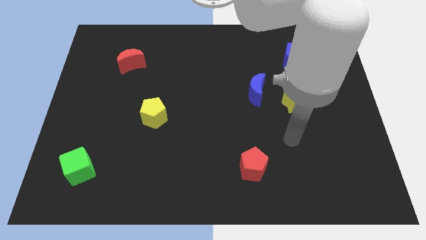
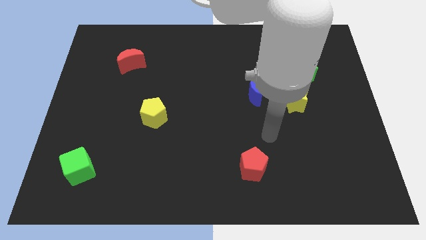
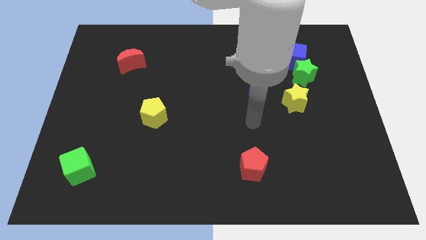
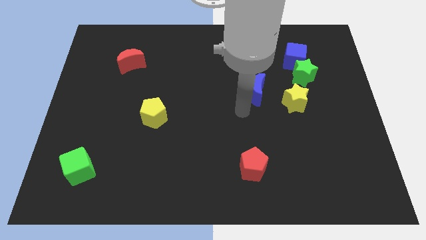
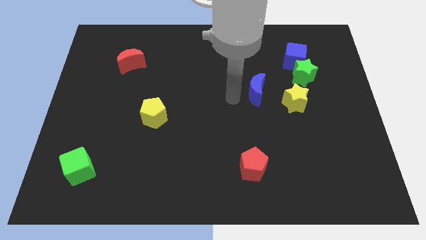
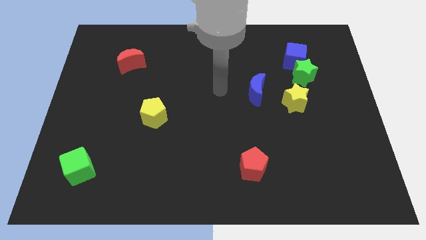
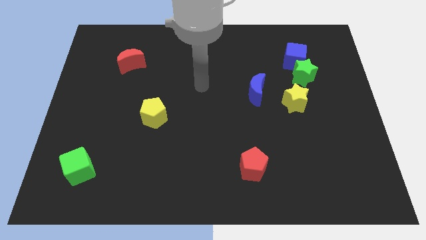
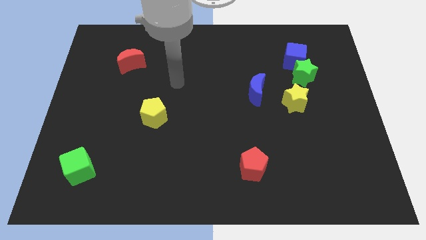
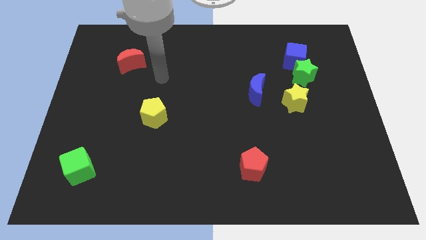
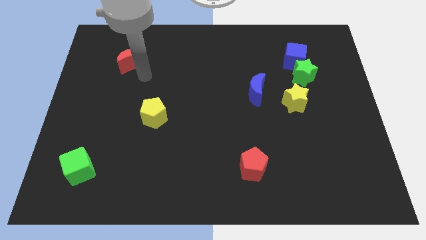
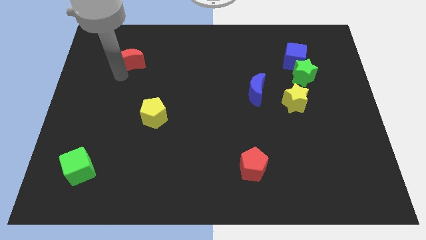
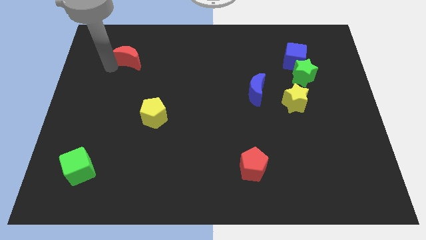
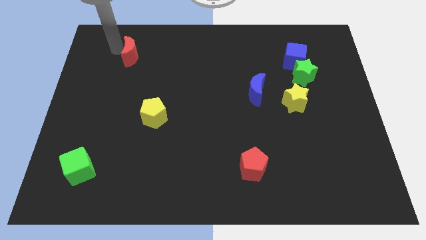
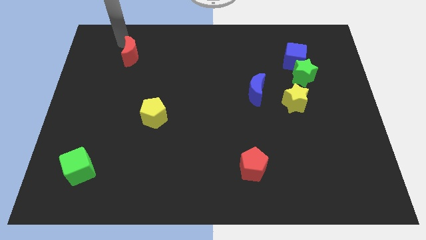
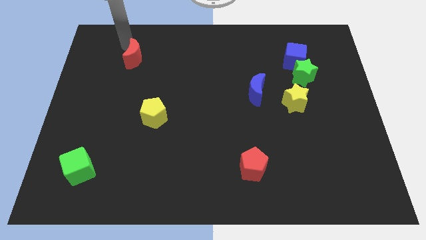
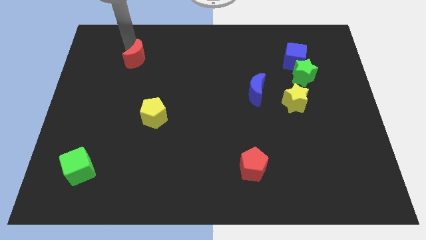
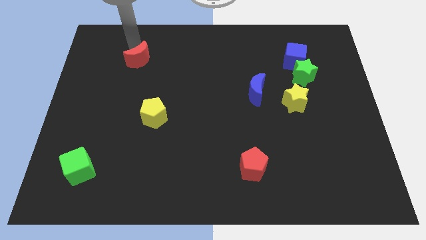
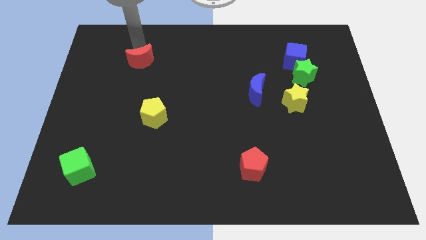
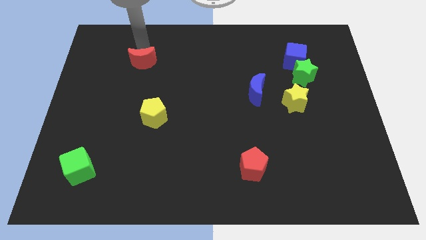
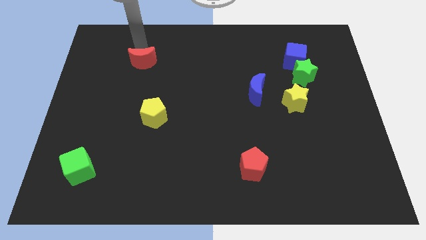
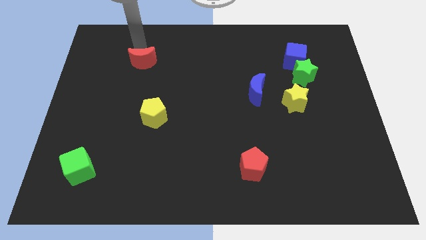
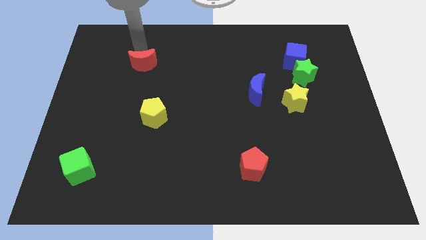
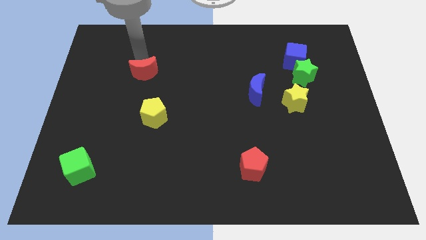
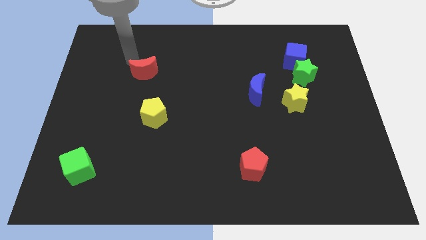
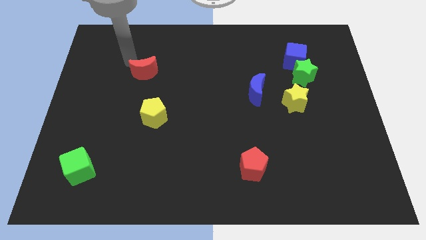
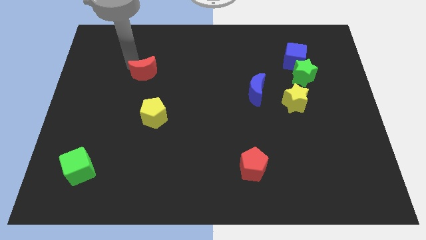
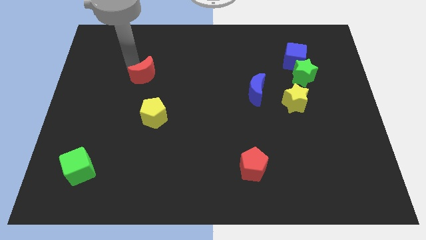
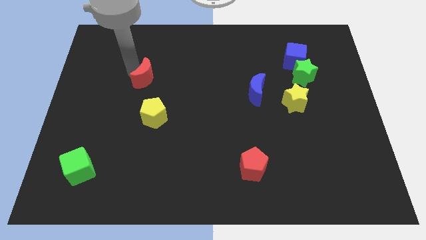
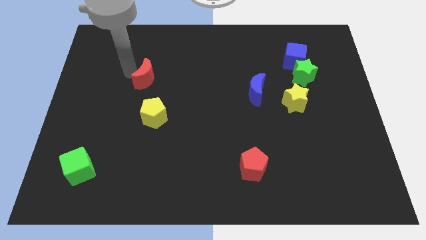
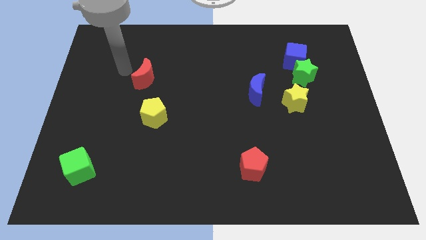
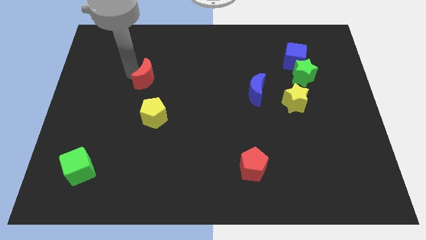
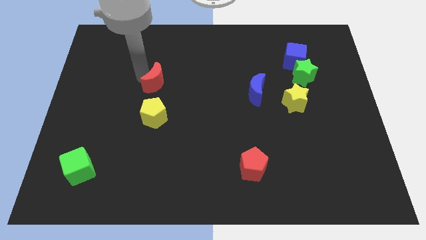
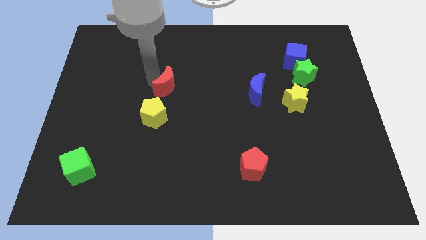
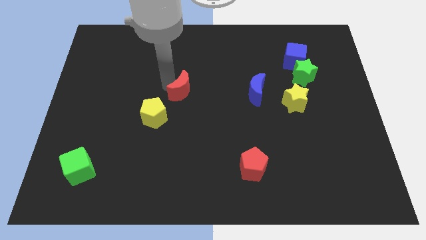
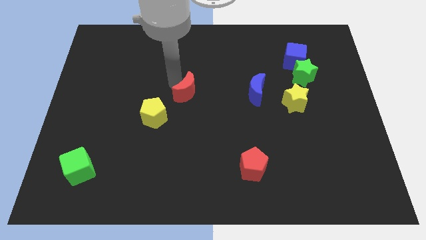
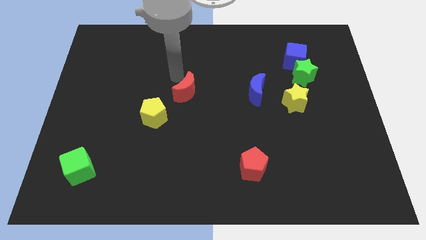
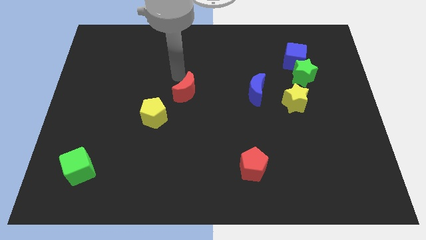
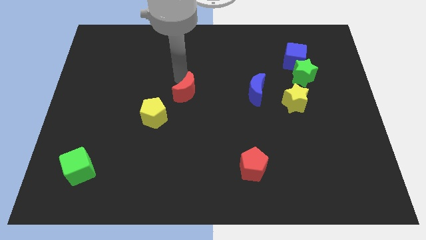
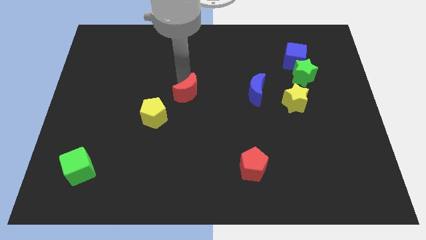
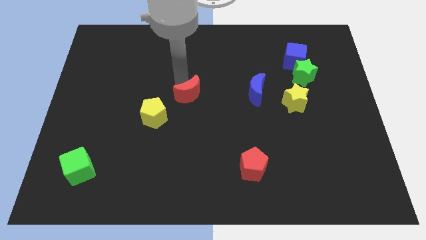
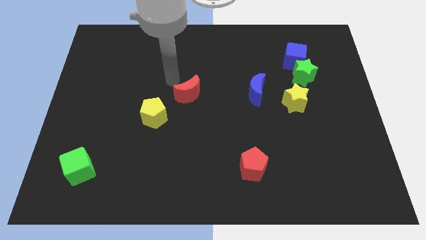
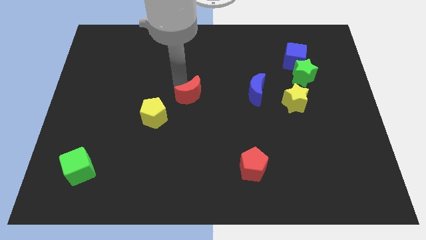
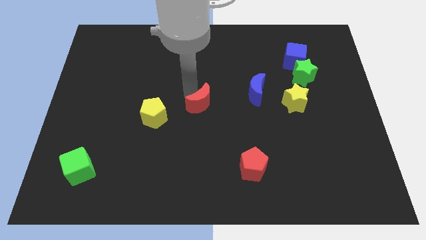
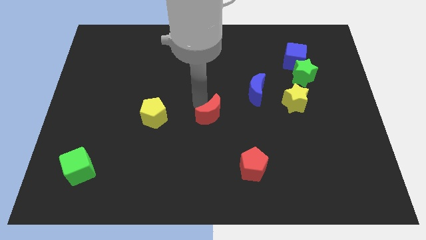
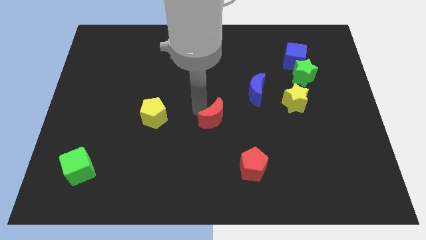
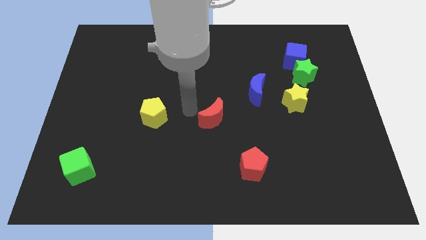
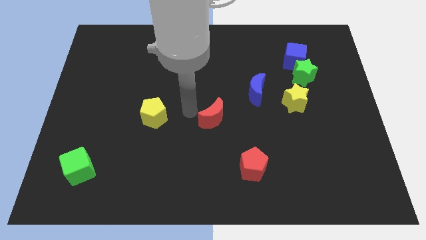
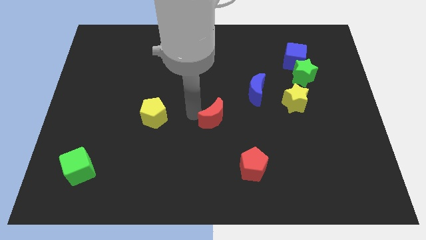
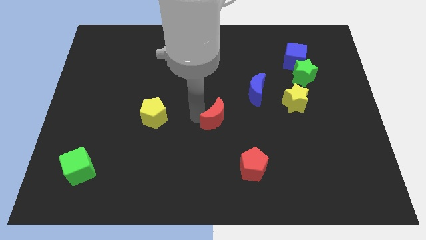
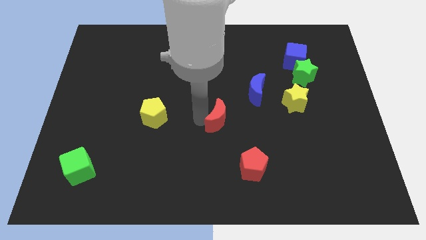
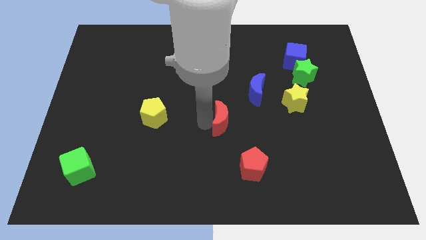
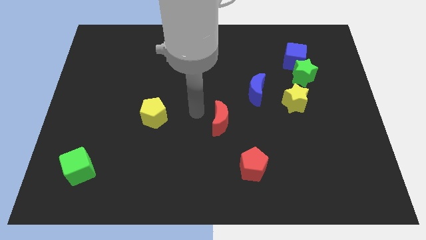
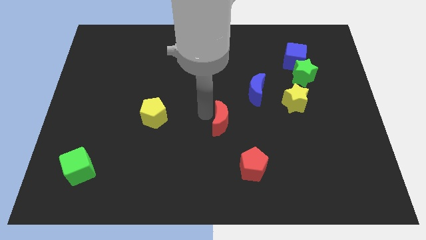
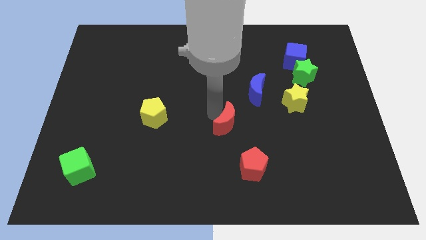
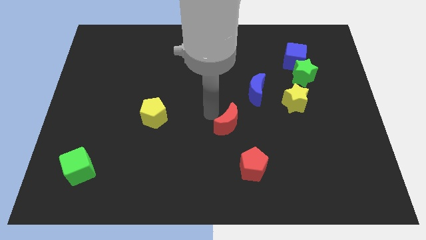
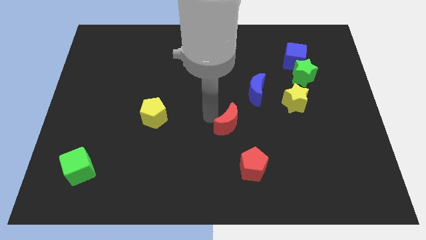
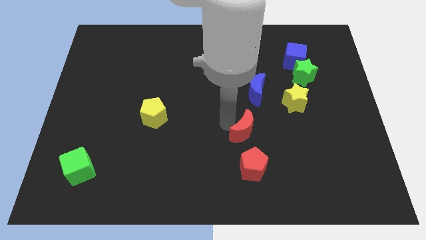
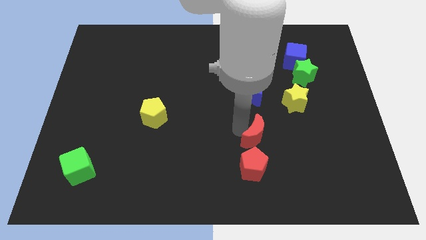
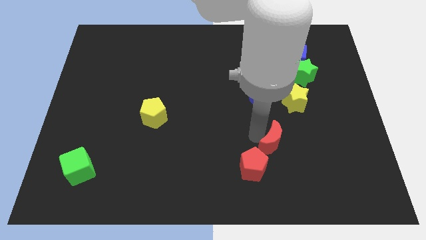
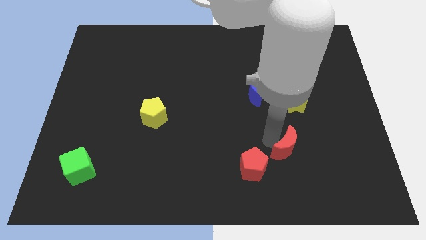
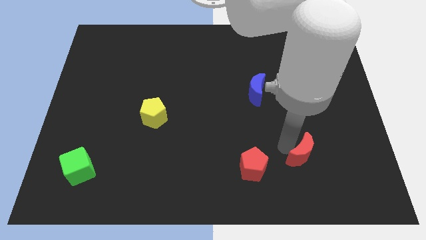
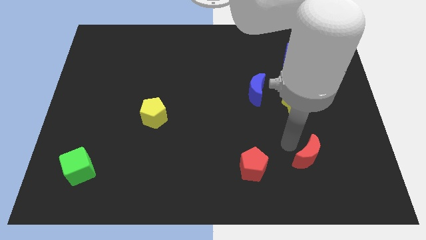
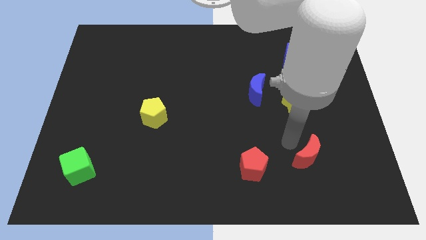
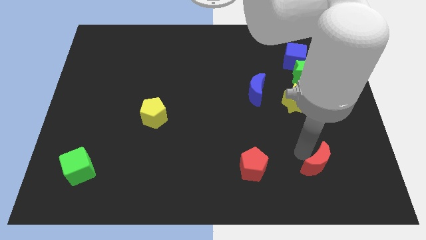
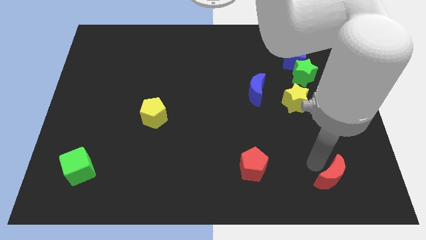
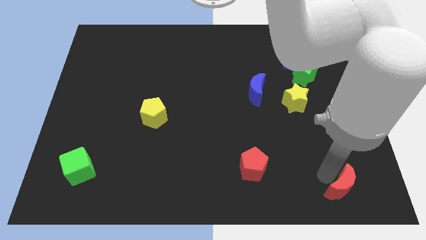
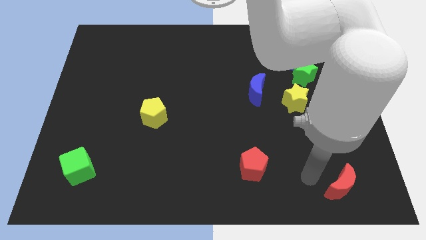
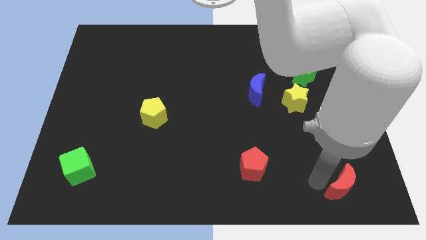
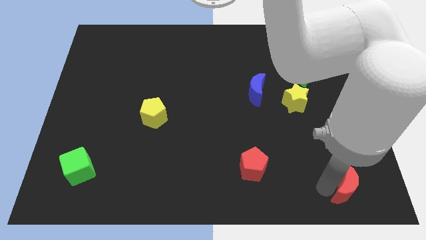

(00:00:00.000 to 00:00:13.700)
move the red moon to the lower right corner

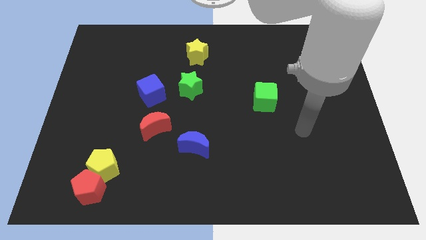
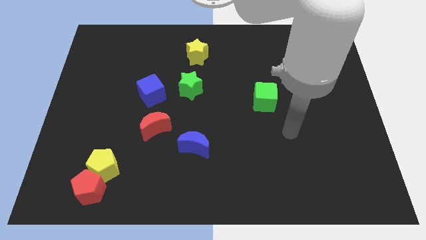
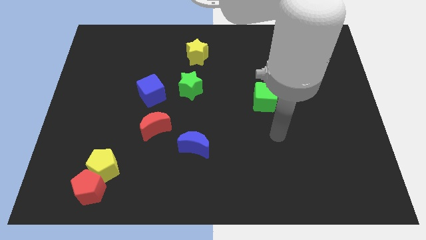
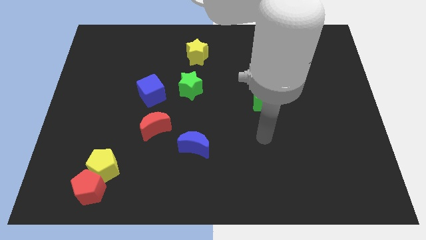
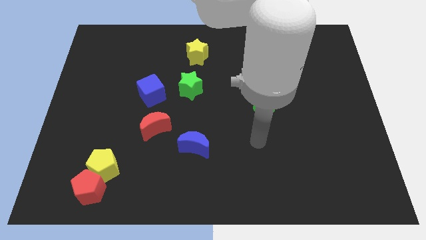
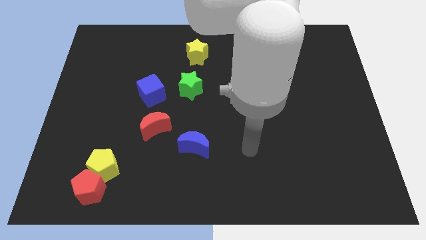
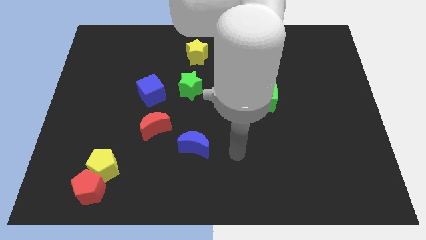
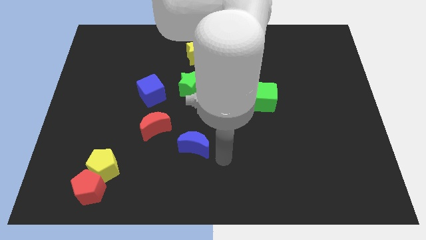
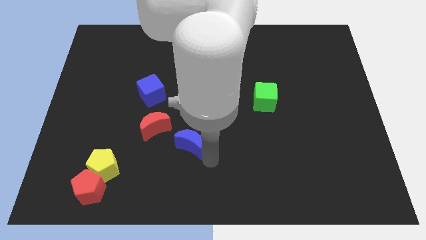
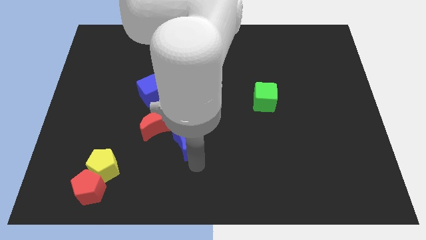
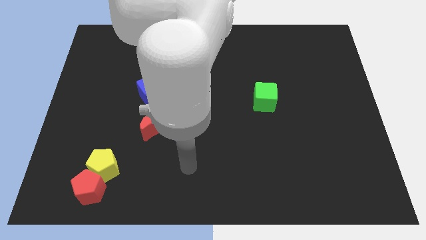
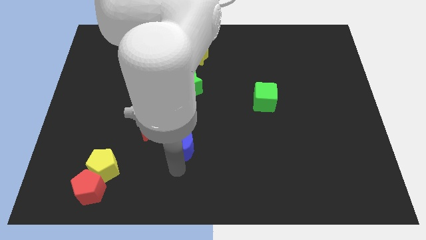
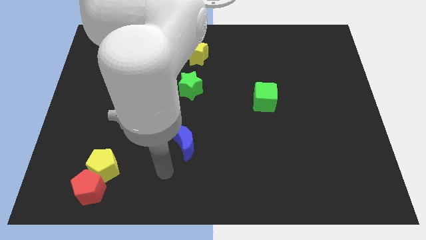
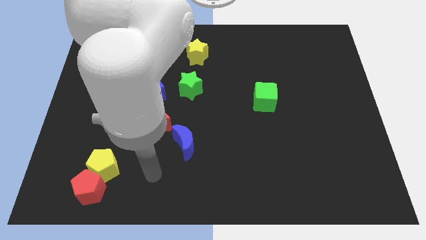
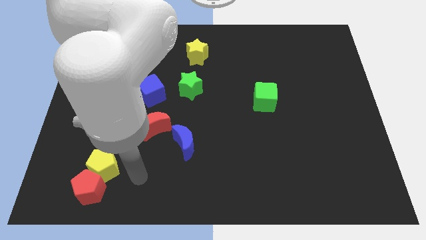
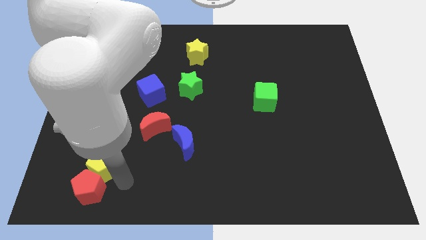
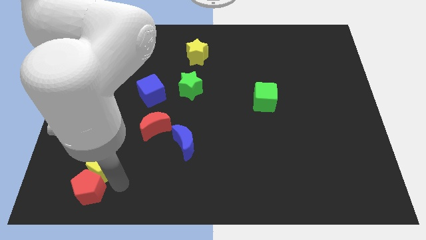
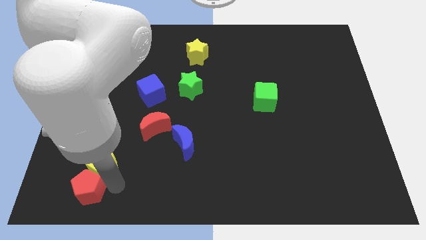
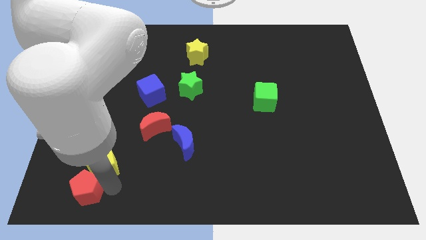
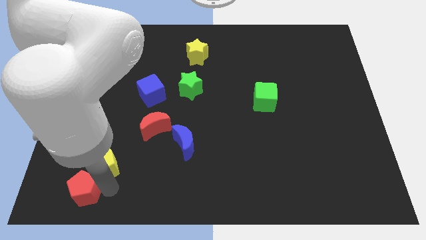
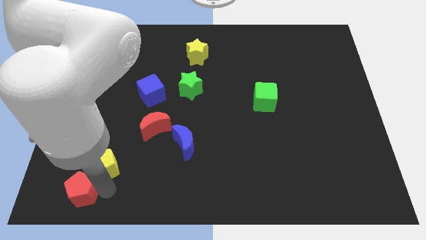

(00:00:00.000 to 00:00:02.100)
push the red pentagon to the bottom left of the board
